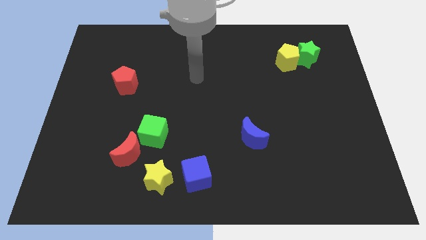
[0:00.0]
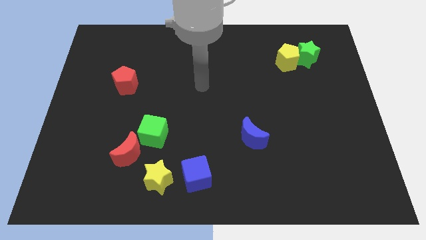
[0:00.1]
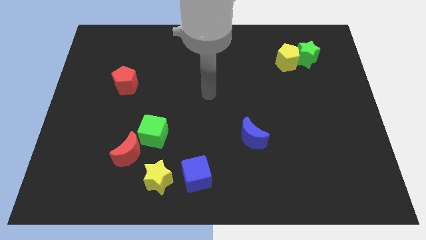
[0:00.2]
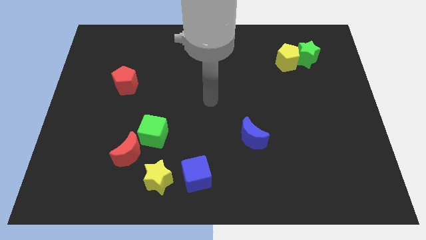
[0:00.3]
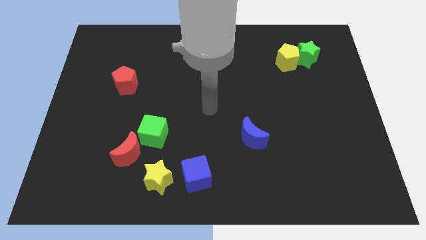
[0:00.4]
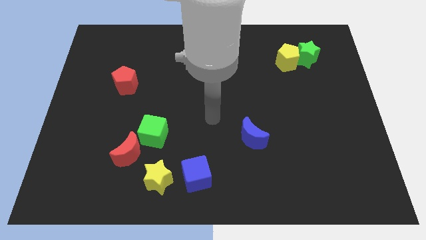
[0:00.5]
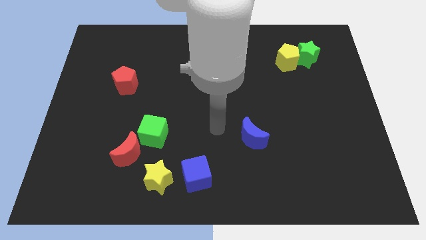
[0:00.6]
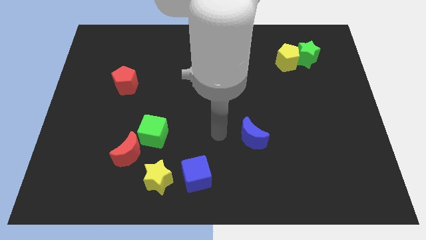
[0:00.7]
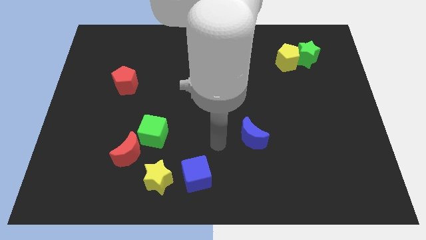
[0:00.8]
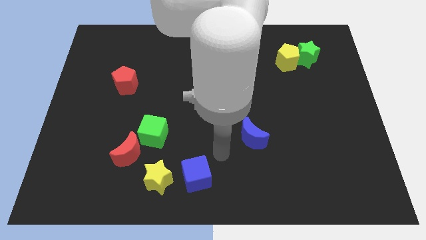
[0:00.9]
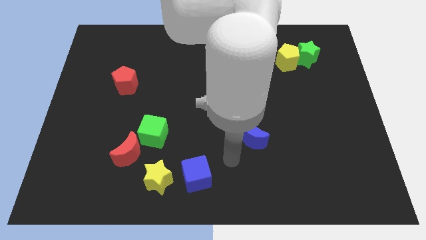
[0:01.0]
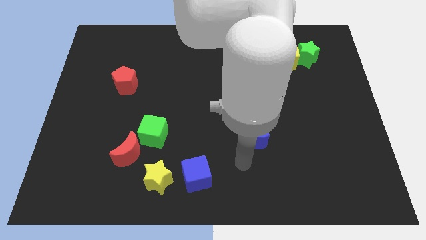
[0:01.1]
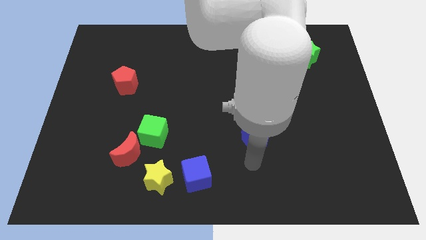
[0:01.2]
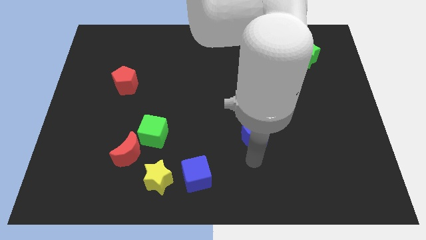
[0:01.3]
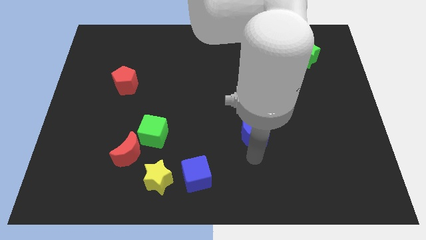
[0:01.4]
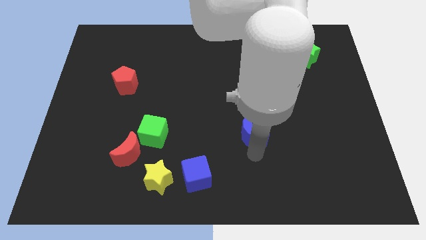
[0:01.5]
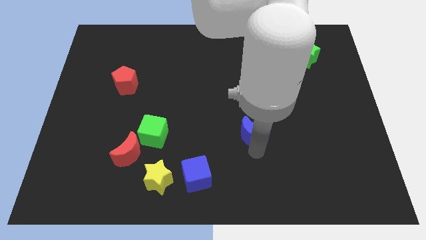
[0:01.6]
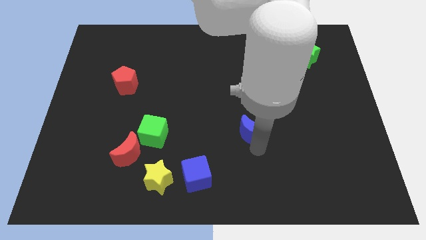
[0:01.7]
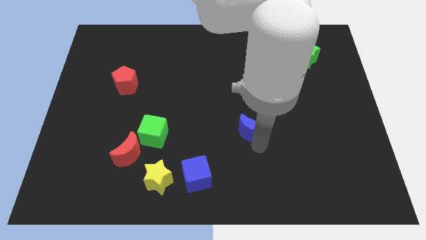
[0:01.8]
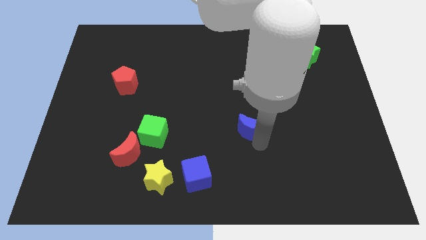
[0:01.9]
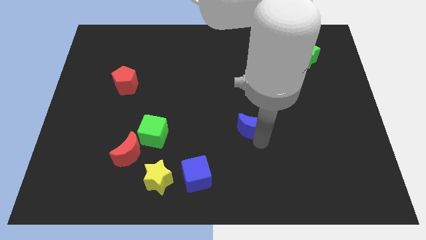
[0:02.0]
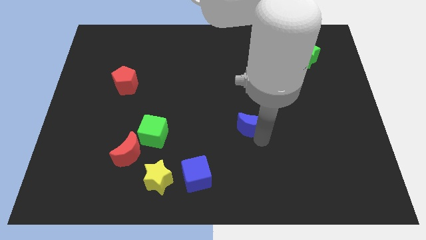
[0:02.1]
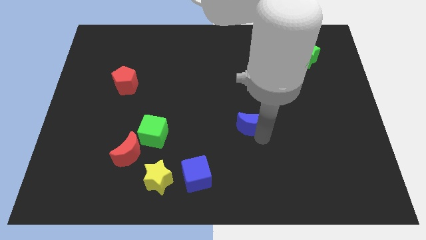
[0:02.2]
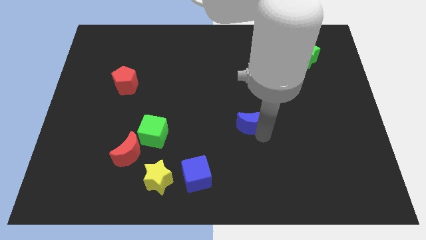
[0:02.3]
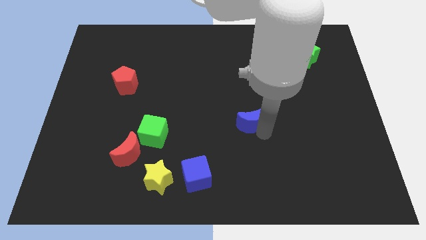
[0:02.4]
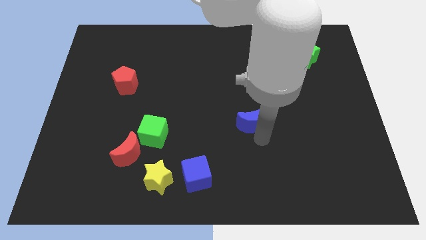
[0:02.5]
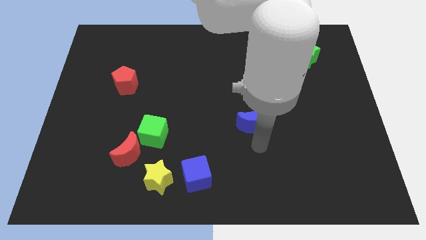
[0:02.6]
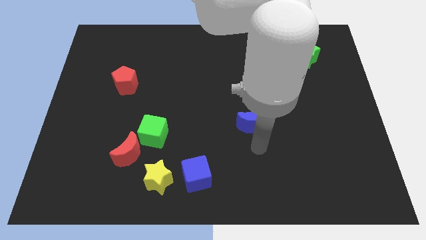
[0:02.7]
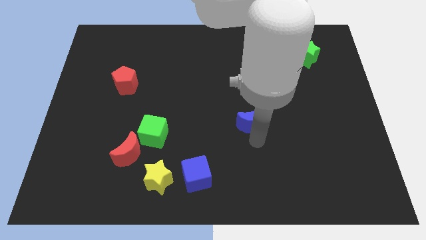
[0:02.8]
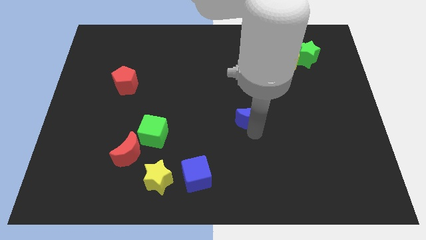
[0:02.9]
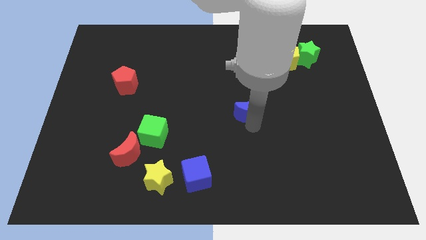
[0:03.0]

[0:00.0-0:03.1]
slightly move the blue moon upwards

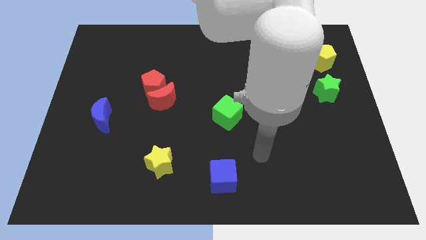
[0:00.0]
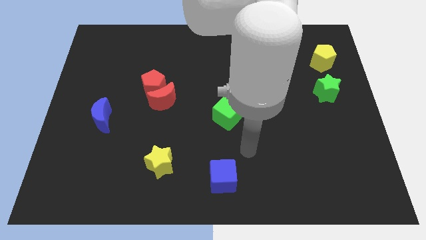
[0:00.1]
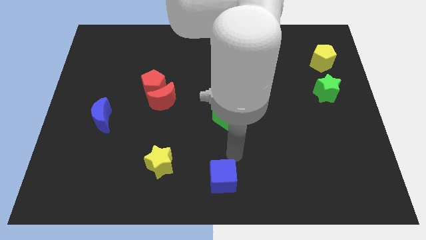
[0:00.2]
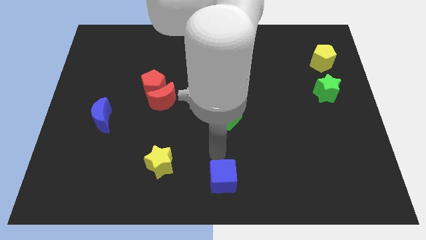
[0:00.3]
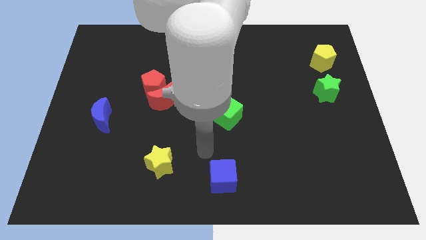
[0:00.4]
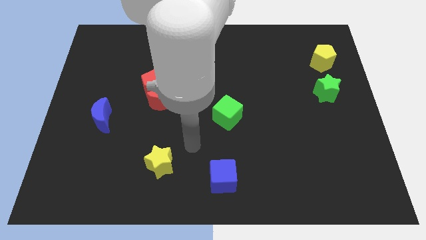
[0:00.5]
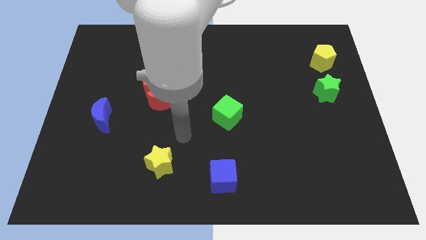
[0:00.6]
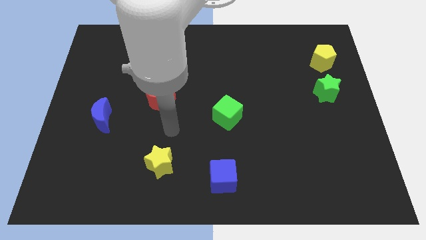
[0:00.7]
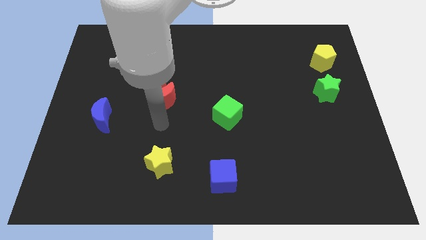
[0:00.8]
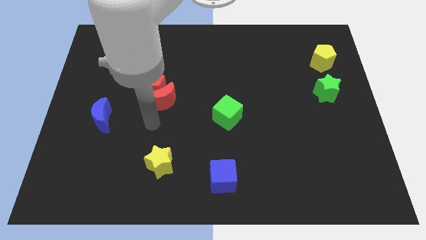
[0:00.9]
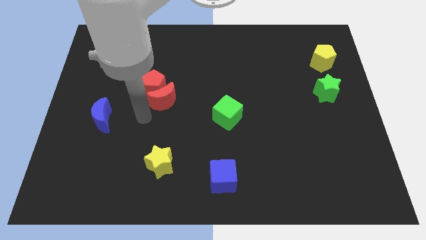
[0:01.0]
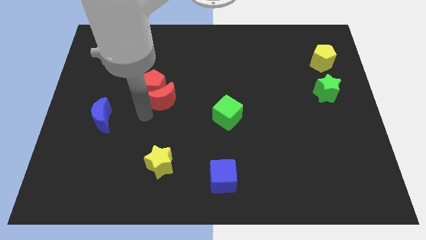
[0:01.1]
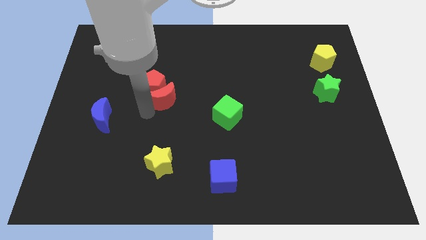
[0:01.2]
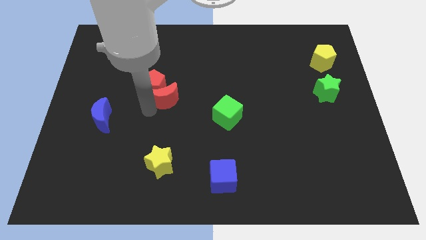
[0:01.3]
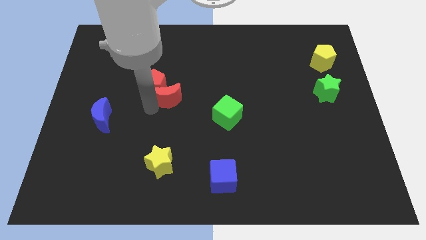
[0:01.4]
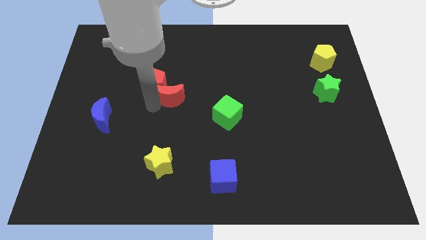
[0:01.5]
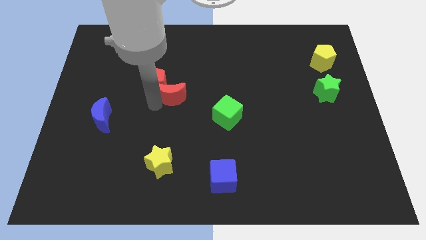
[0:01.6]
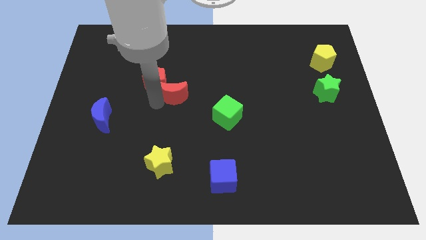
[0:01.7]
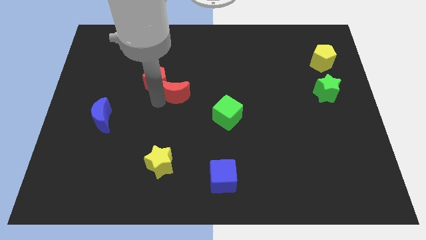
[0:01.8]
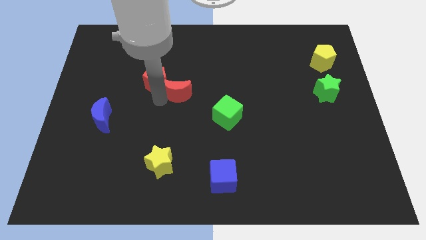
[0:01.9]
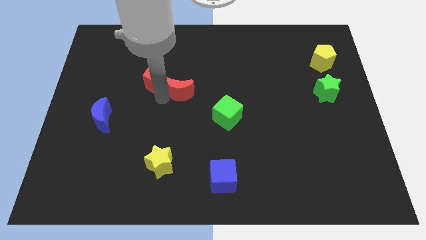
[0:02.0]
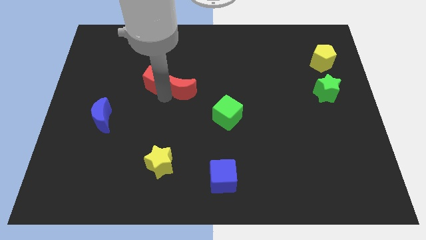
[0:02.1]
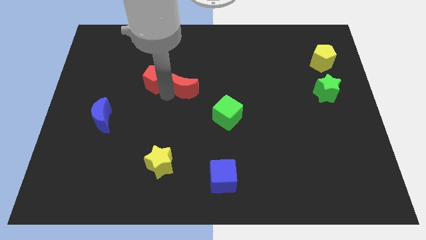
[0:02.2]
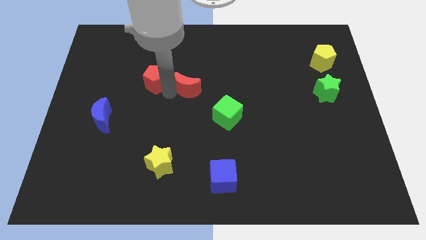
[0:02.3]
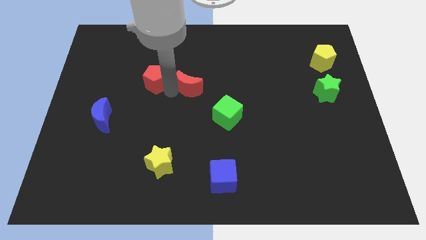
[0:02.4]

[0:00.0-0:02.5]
move the red moon a bit up and right diagonally

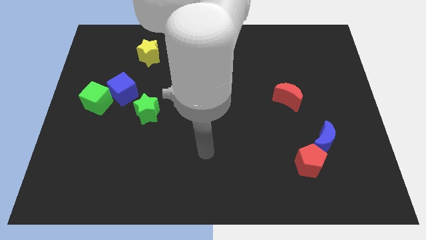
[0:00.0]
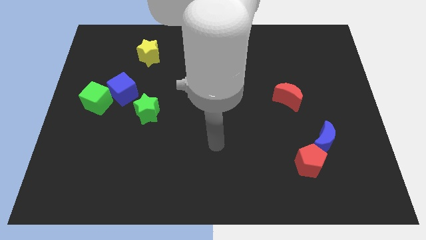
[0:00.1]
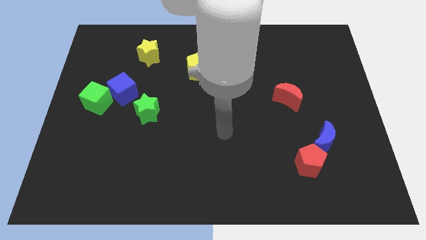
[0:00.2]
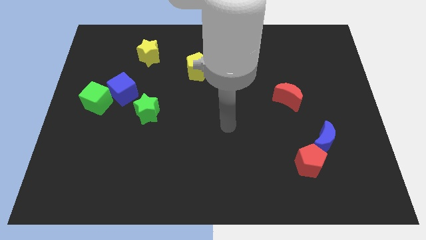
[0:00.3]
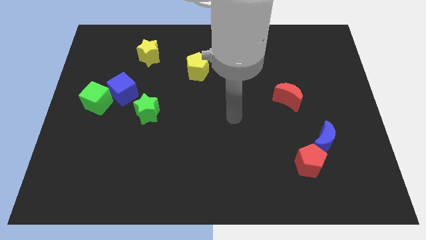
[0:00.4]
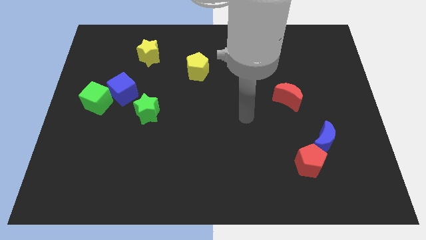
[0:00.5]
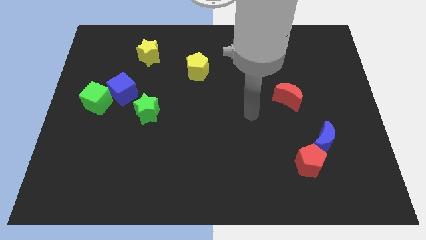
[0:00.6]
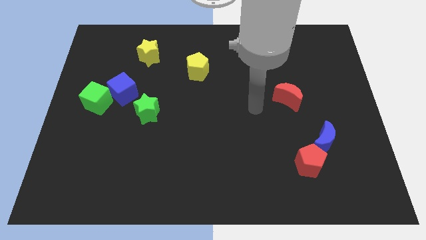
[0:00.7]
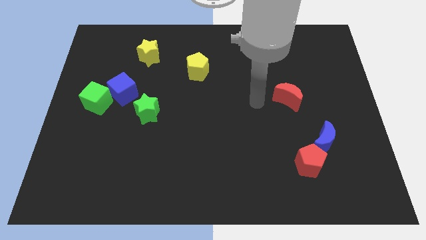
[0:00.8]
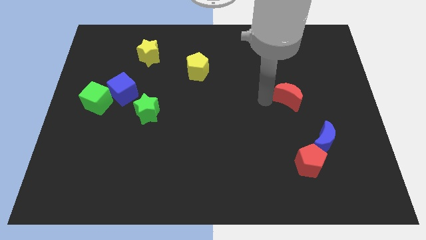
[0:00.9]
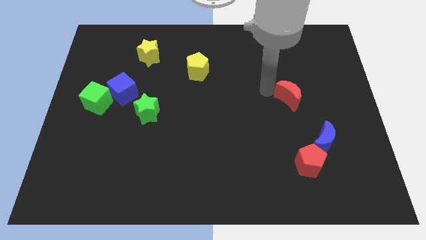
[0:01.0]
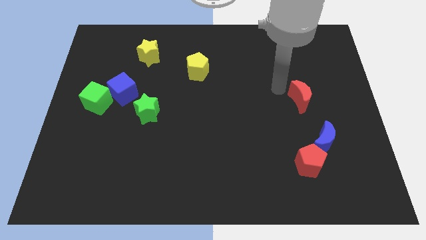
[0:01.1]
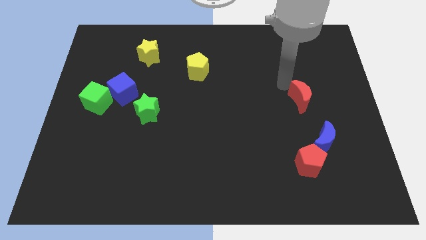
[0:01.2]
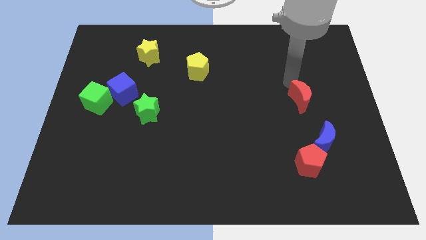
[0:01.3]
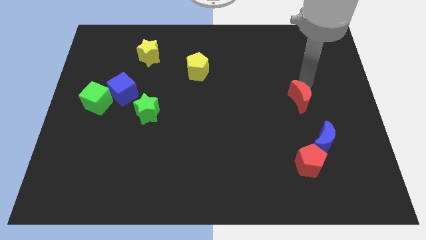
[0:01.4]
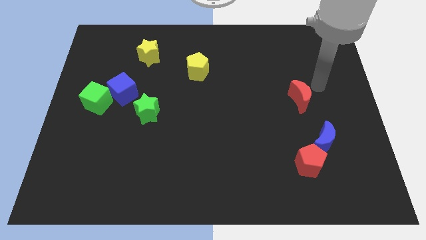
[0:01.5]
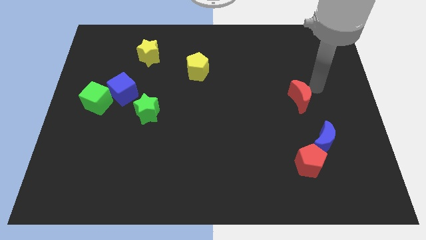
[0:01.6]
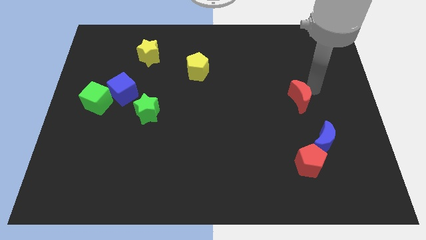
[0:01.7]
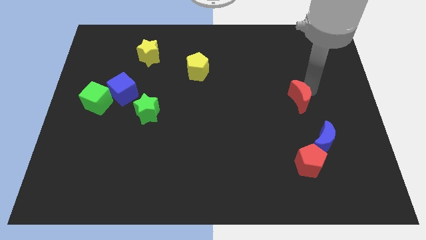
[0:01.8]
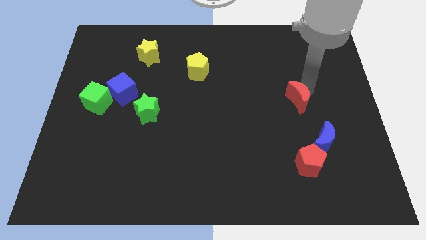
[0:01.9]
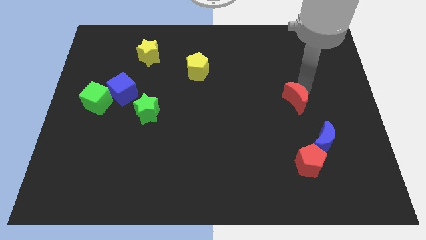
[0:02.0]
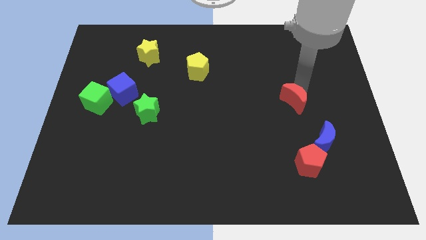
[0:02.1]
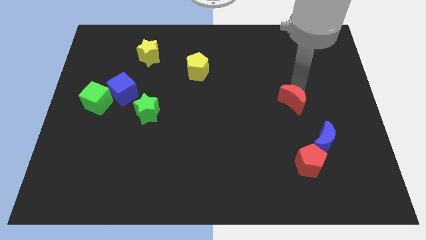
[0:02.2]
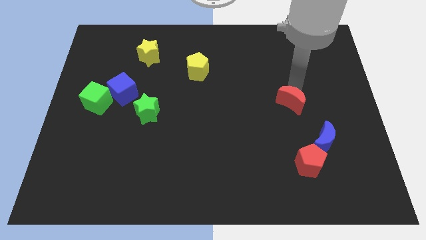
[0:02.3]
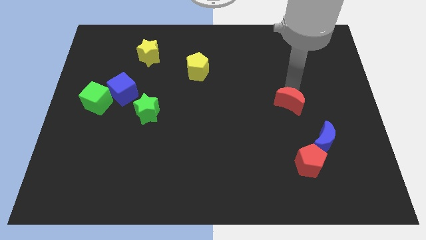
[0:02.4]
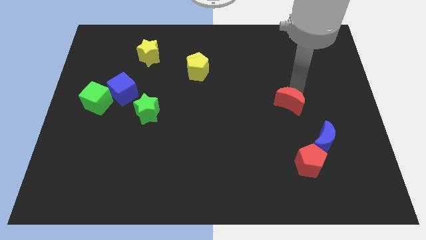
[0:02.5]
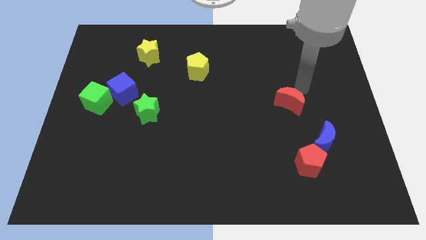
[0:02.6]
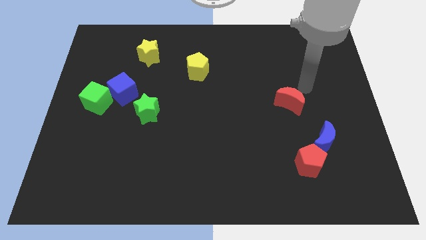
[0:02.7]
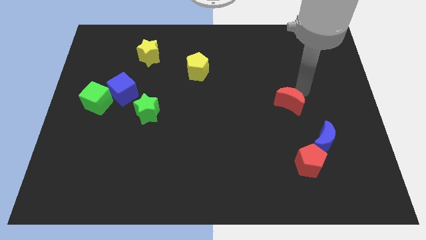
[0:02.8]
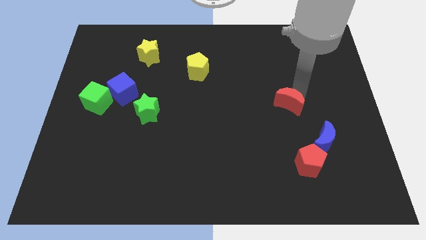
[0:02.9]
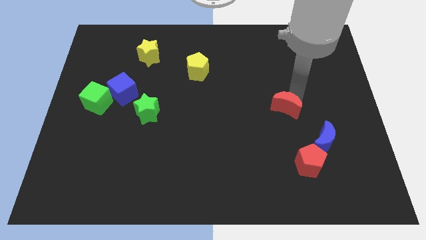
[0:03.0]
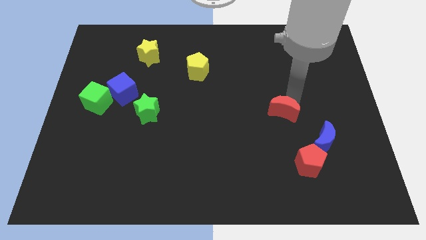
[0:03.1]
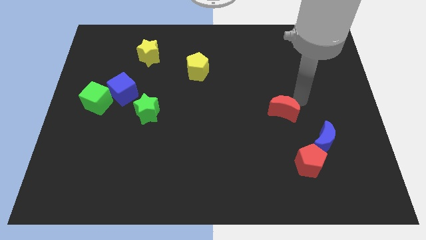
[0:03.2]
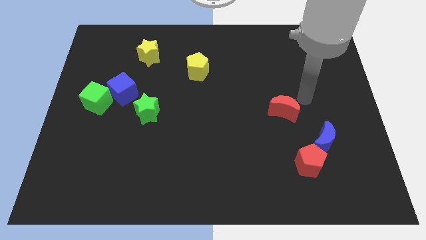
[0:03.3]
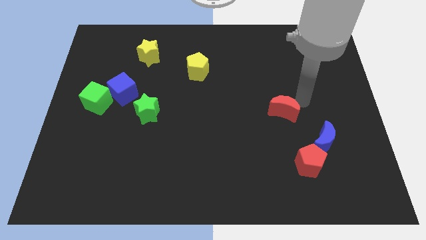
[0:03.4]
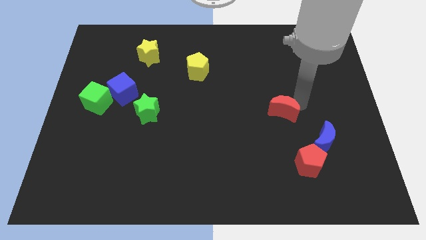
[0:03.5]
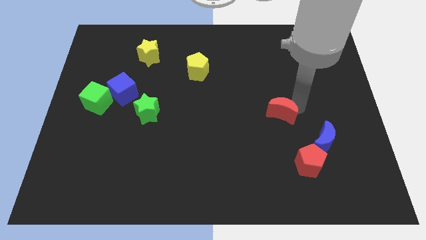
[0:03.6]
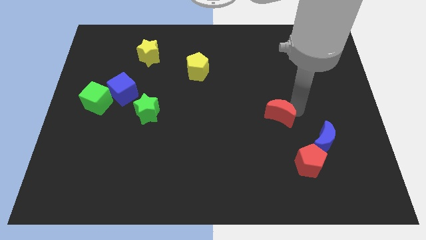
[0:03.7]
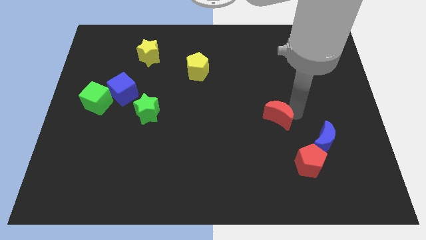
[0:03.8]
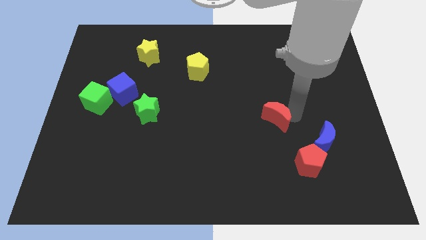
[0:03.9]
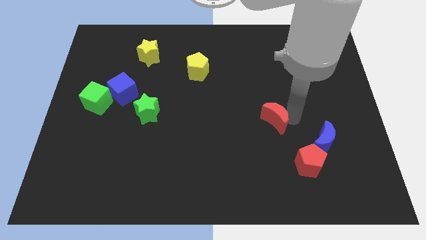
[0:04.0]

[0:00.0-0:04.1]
move the red moon a little bit diagonally down and to the left
